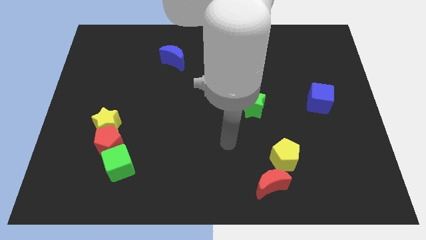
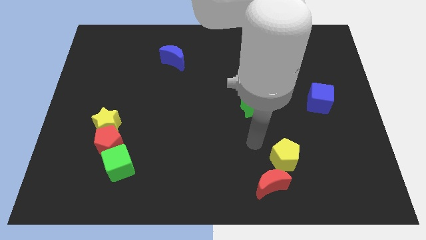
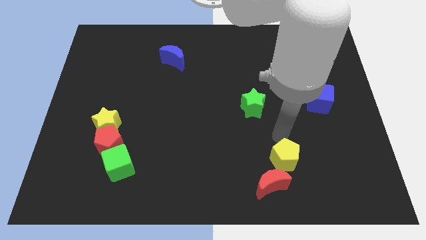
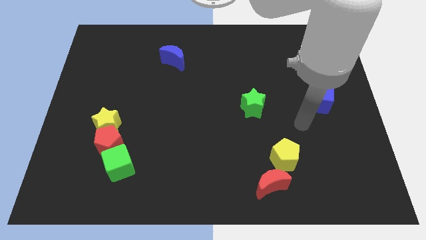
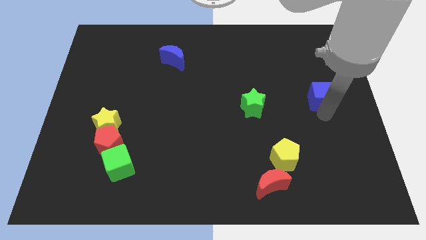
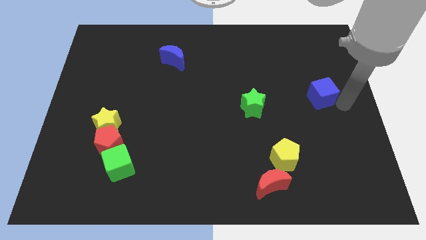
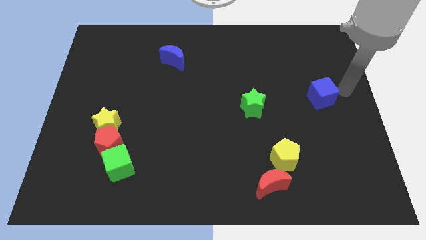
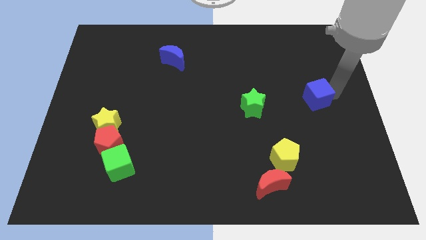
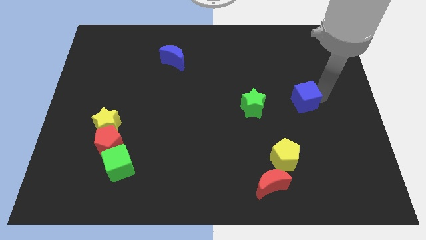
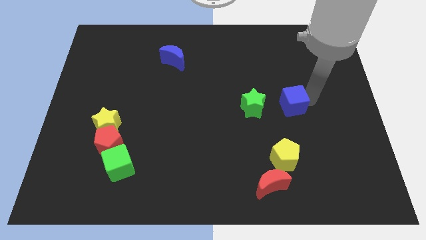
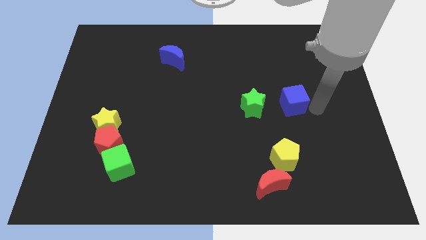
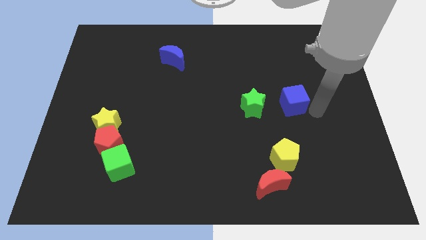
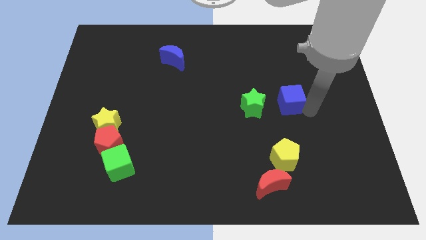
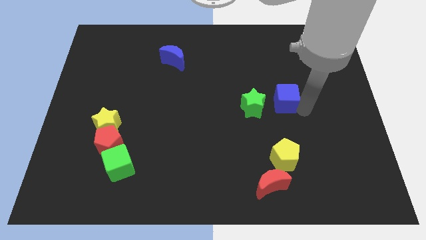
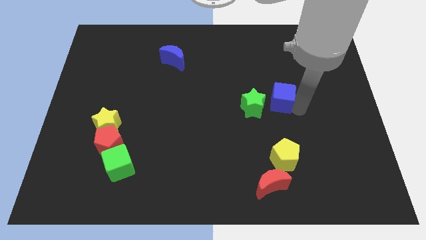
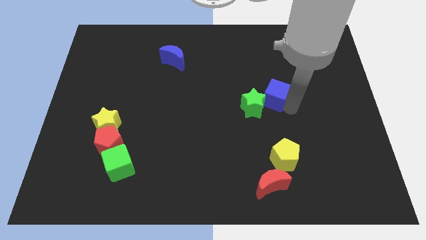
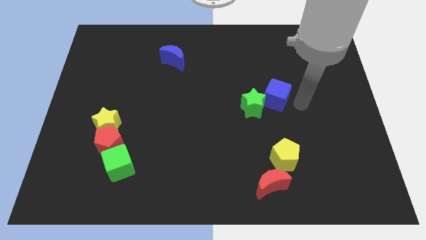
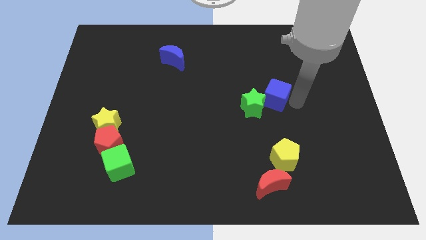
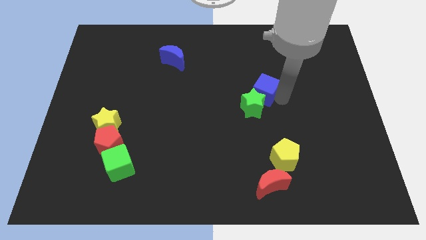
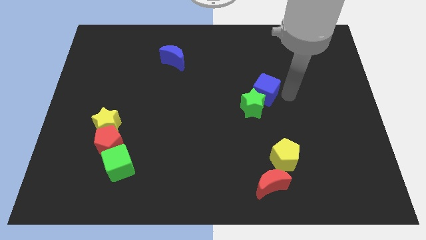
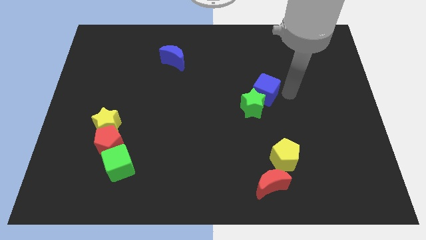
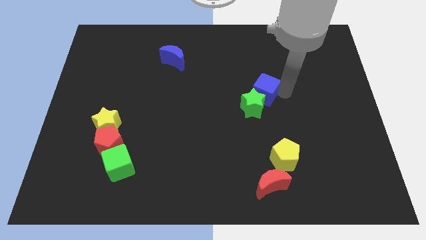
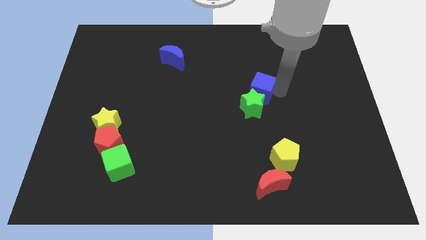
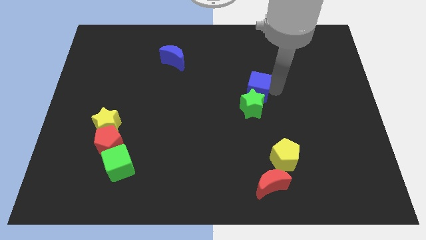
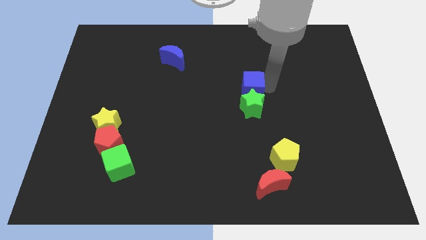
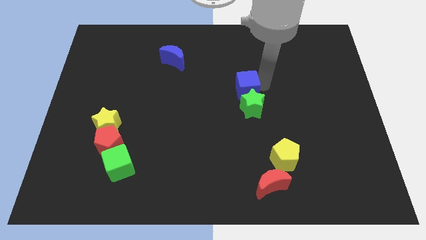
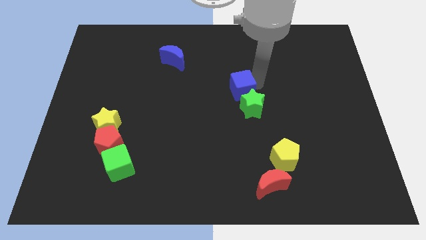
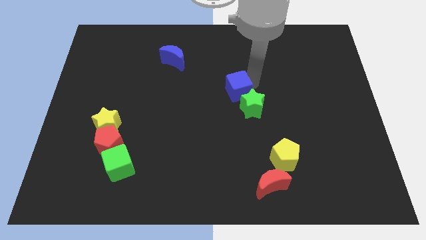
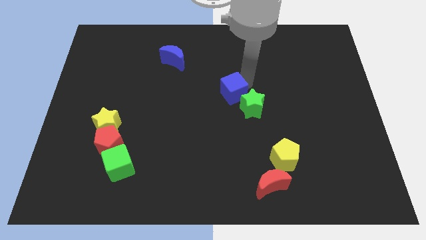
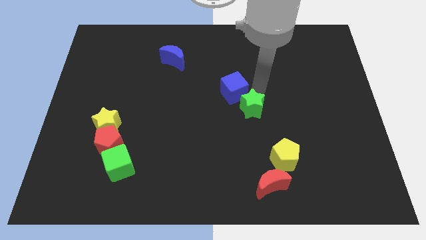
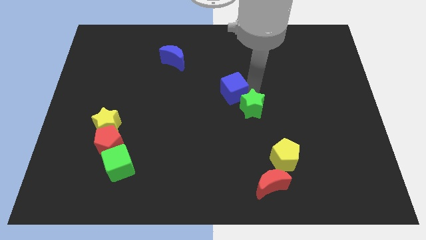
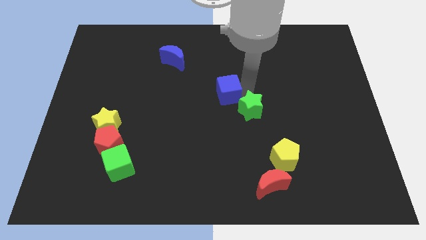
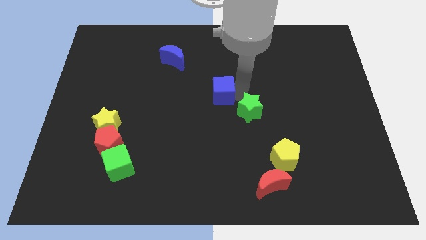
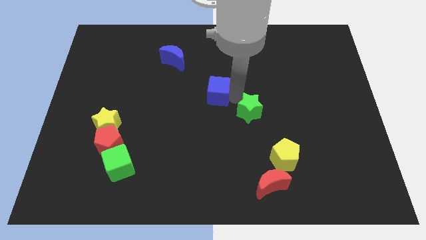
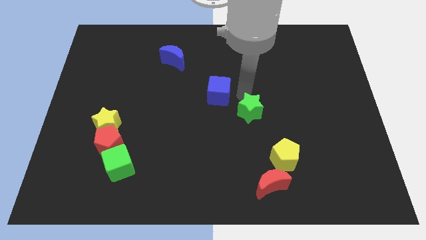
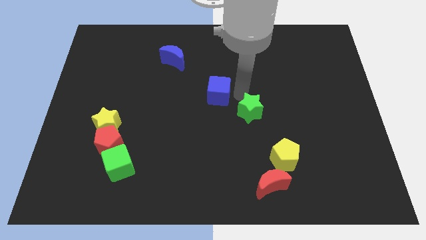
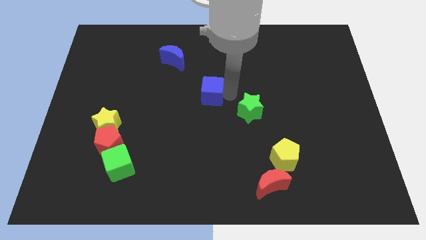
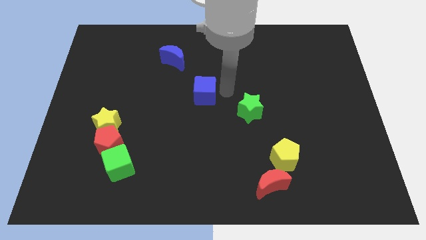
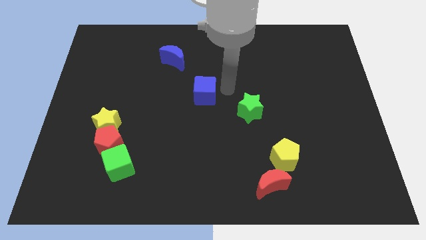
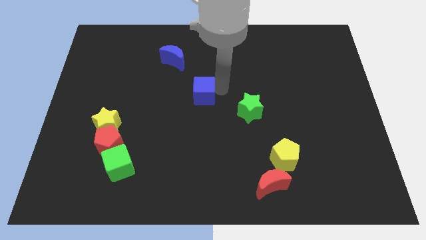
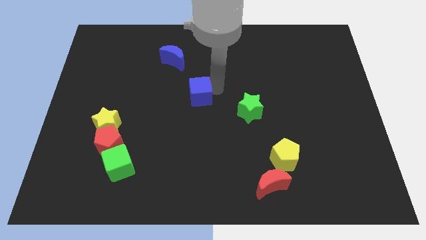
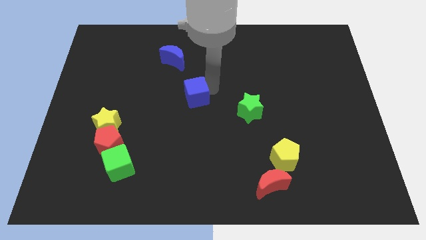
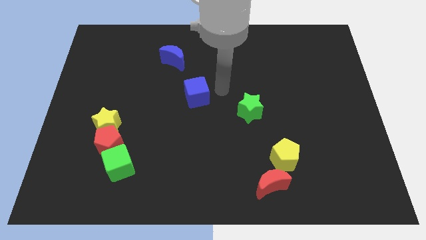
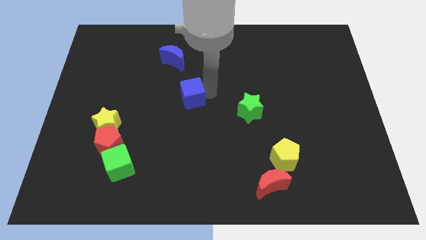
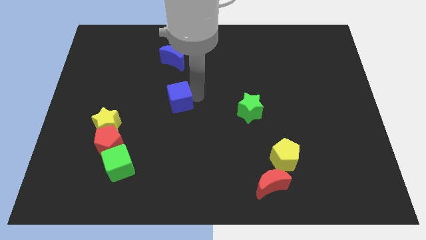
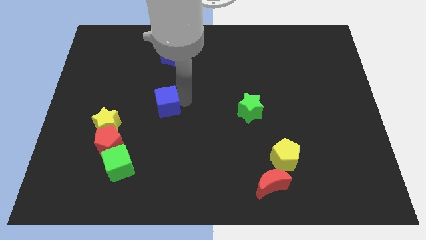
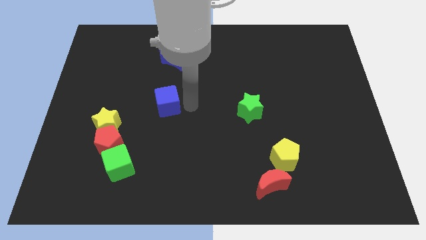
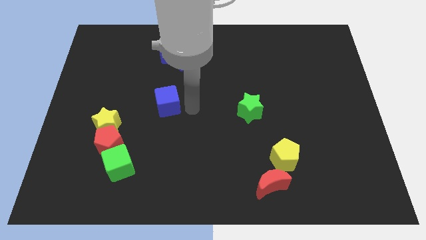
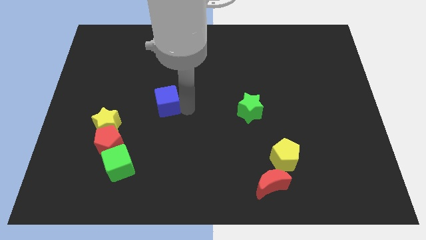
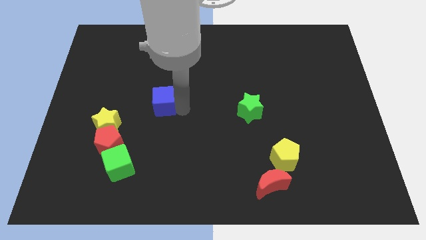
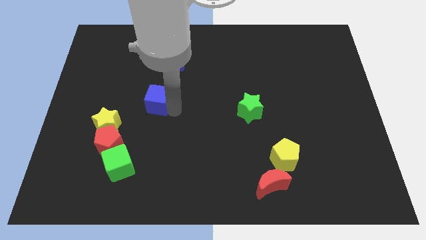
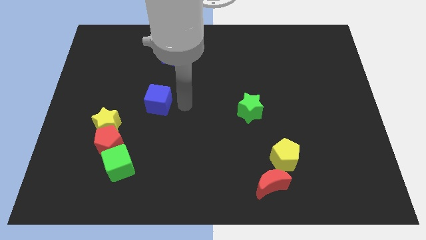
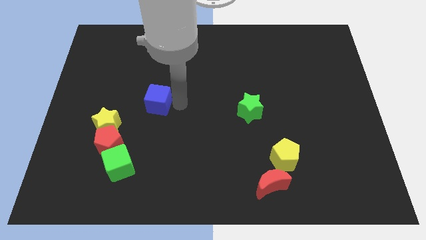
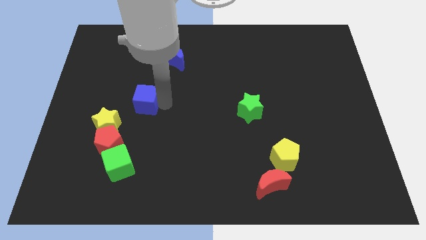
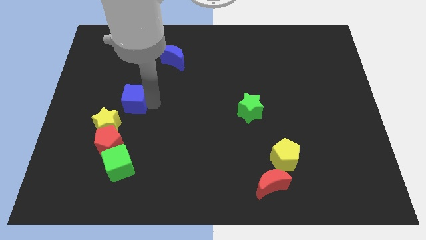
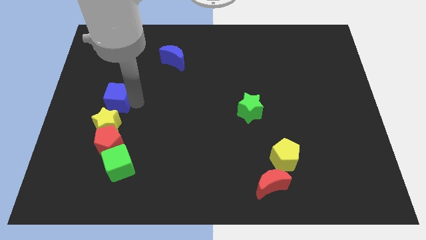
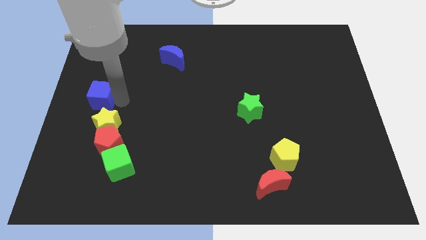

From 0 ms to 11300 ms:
put the blue cube to the left side of the board

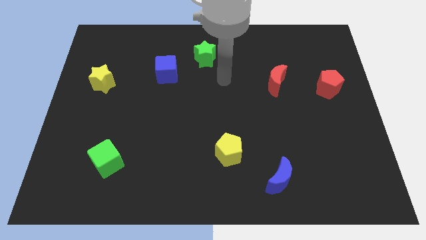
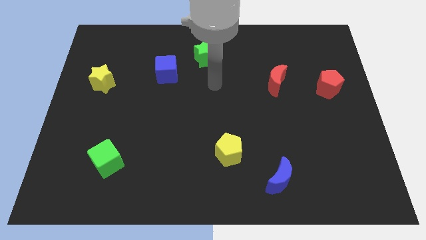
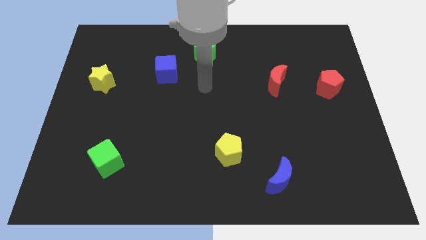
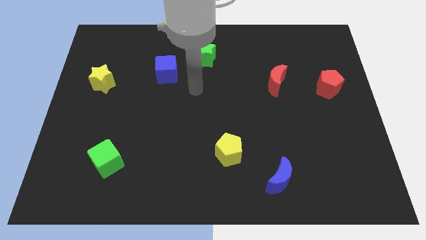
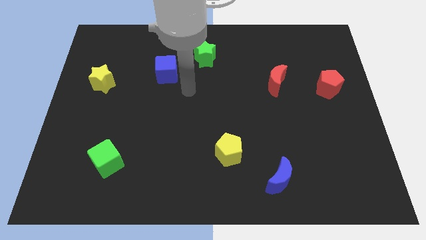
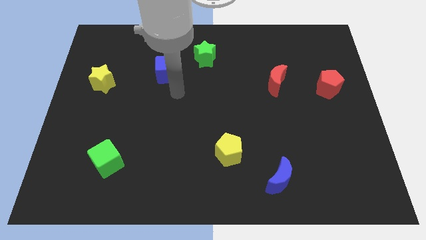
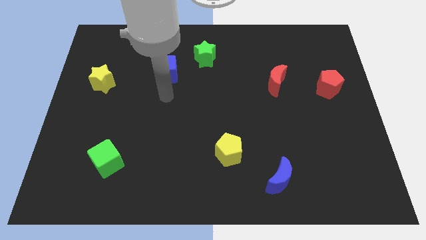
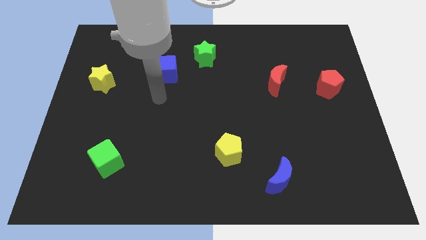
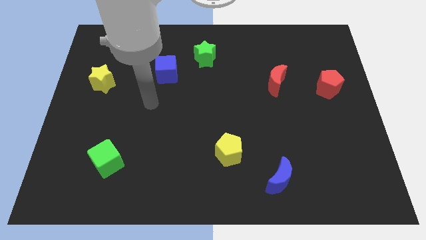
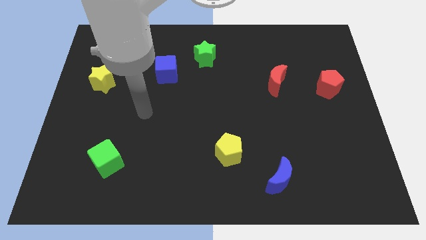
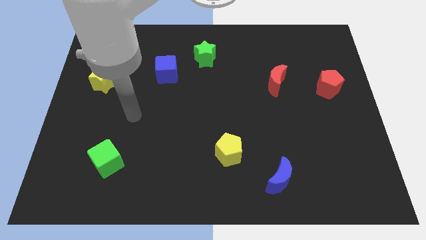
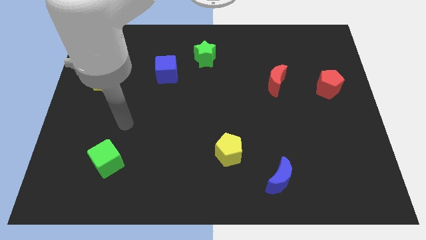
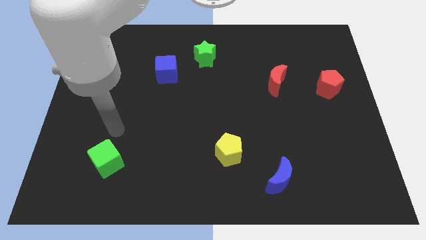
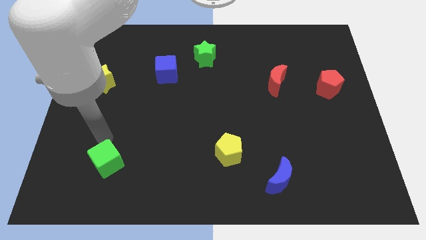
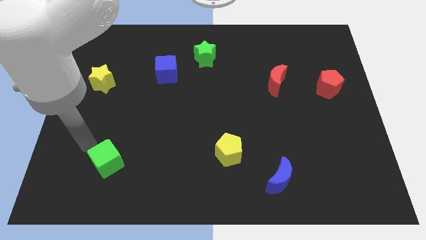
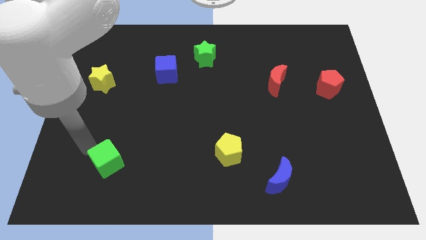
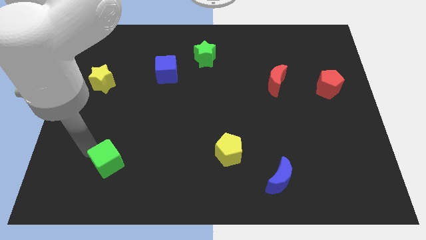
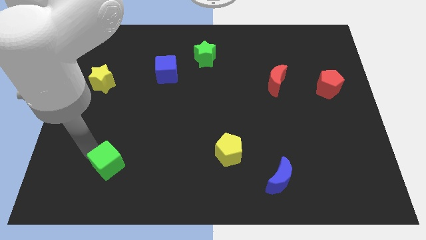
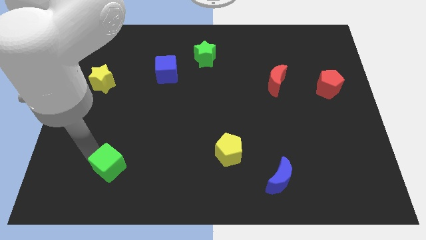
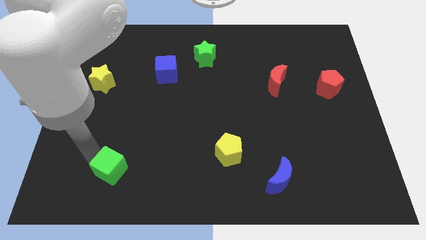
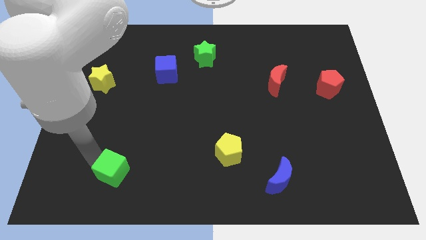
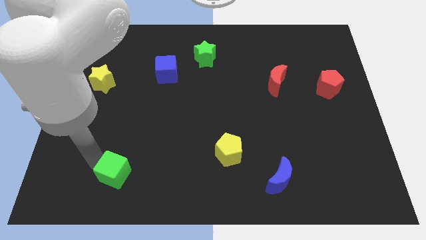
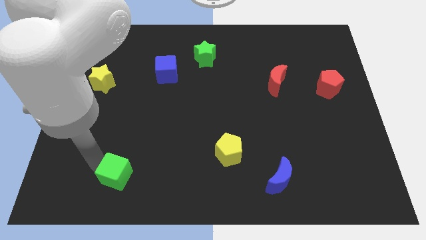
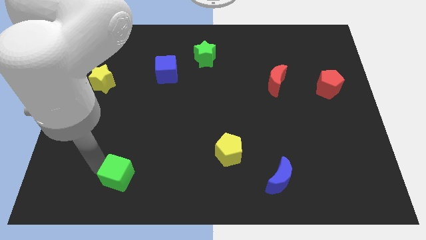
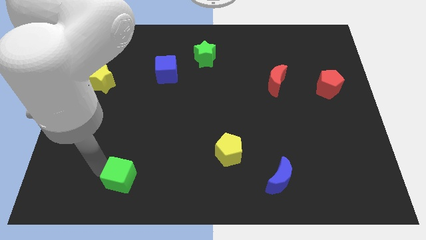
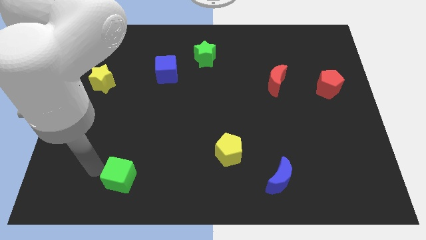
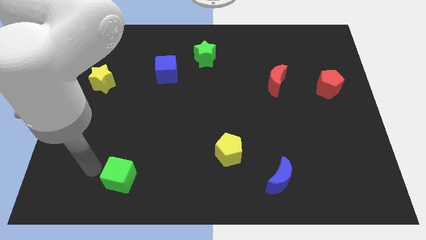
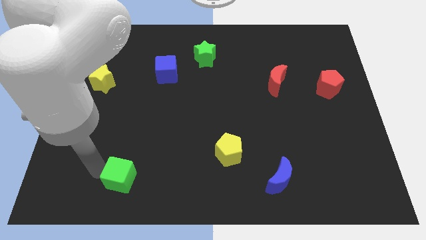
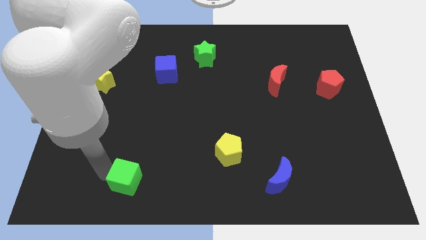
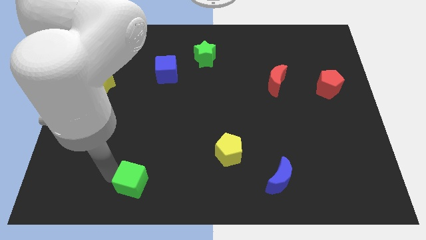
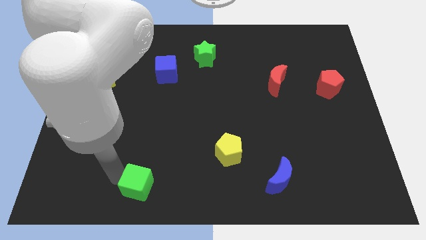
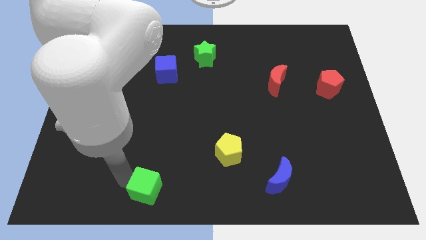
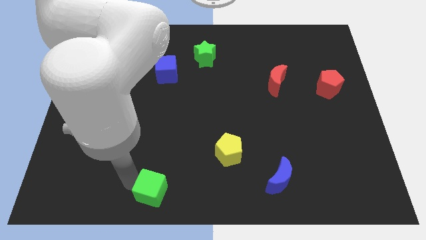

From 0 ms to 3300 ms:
move the green cube to the bottom side
